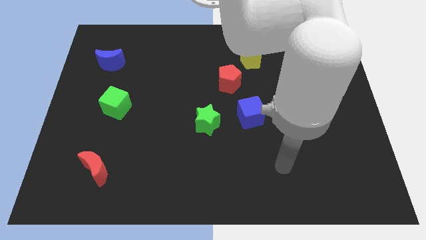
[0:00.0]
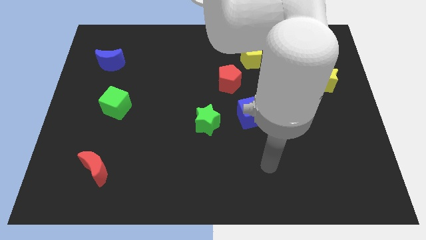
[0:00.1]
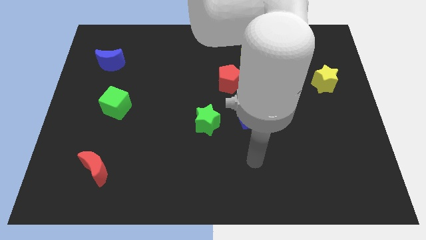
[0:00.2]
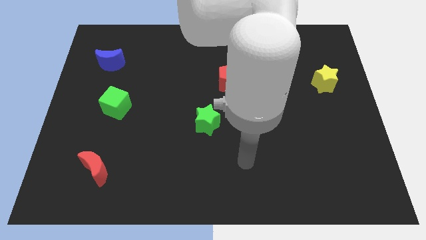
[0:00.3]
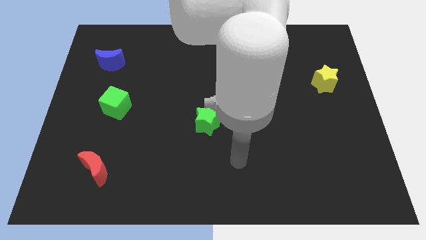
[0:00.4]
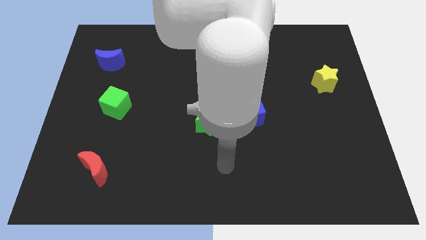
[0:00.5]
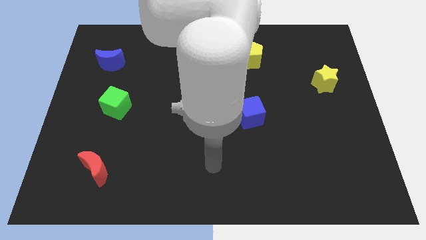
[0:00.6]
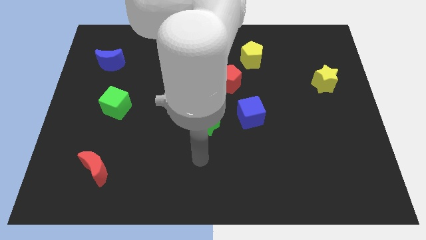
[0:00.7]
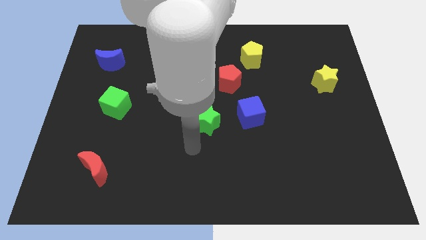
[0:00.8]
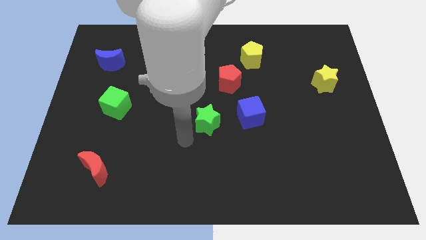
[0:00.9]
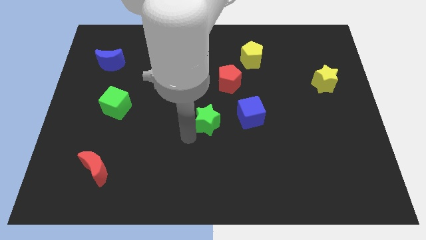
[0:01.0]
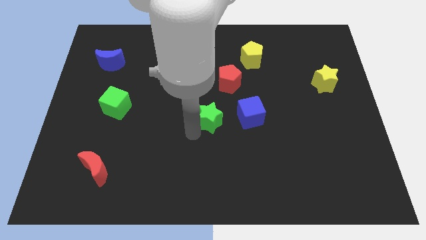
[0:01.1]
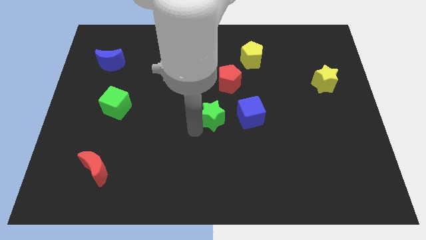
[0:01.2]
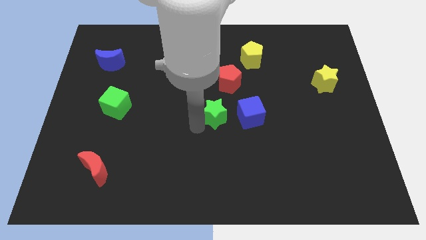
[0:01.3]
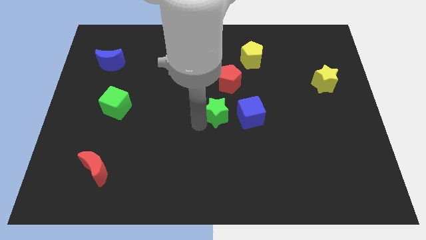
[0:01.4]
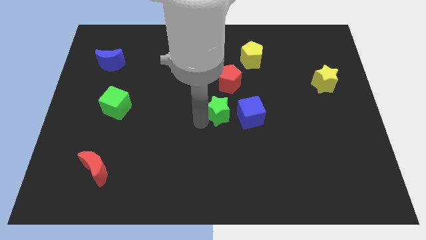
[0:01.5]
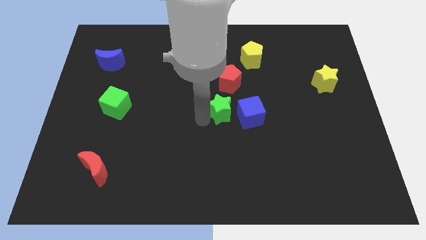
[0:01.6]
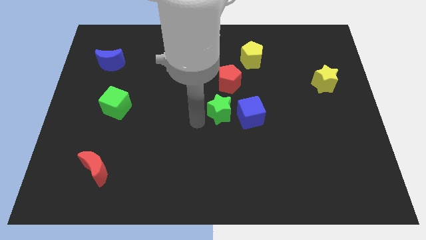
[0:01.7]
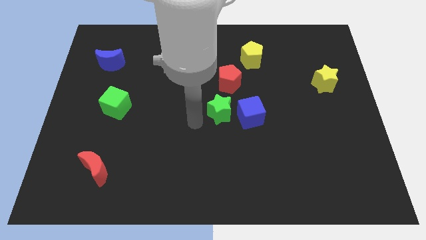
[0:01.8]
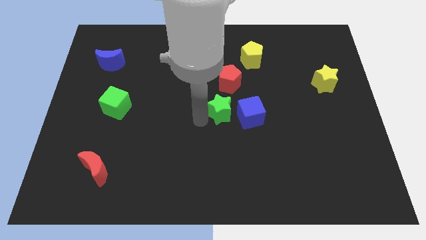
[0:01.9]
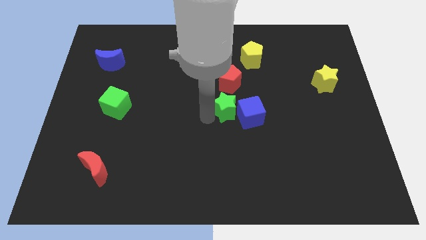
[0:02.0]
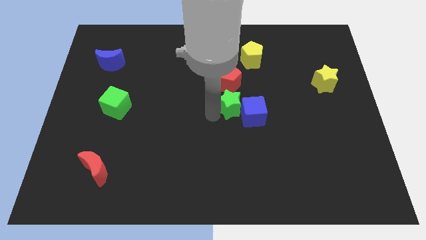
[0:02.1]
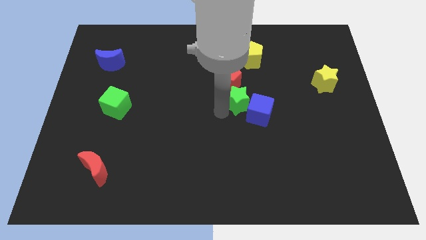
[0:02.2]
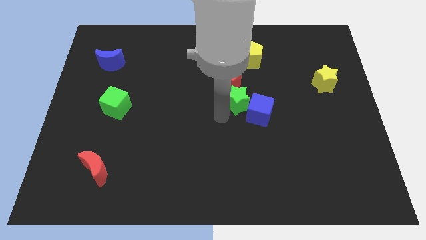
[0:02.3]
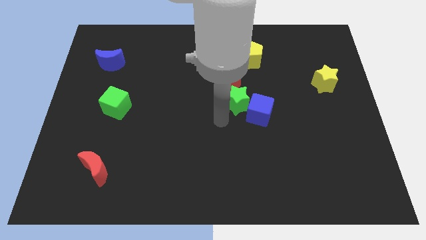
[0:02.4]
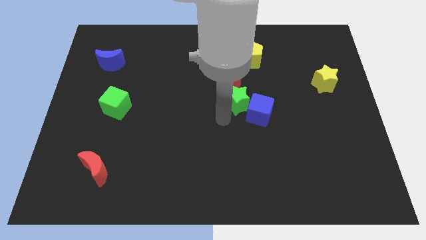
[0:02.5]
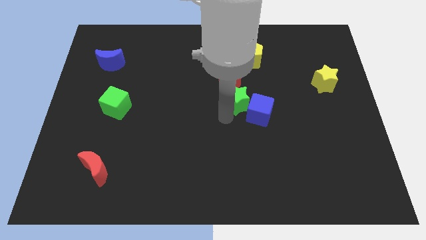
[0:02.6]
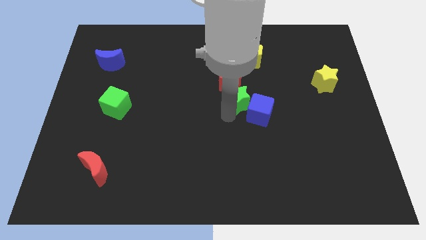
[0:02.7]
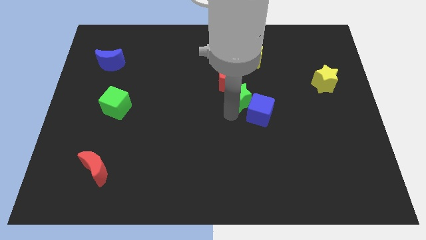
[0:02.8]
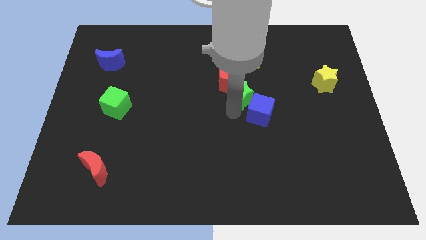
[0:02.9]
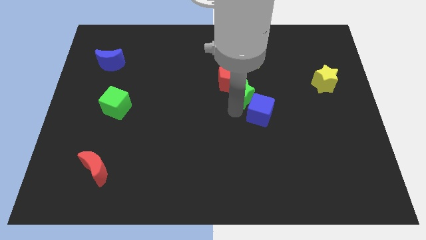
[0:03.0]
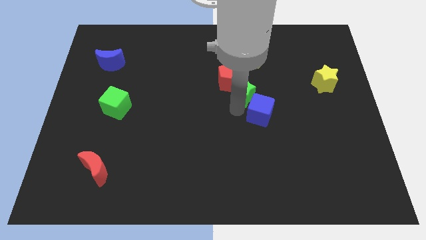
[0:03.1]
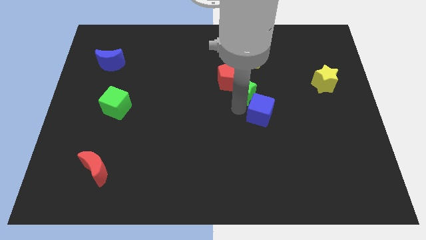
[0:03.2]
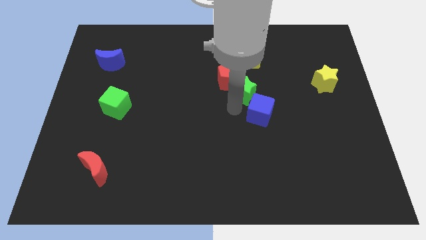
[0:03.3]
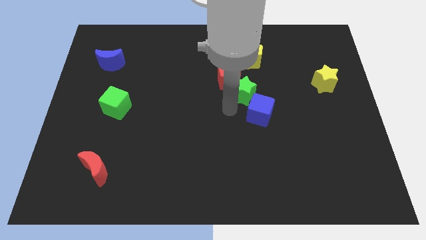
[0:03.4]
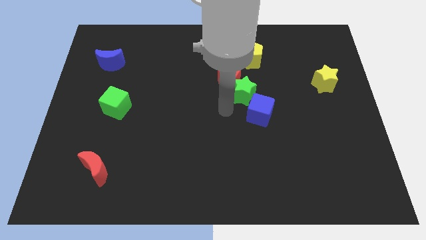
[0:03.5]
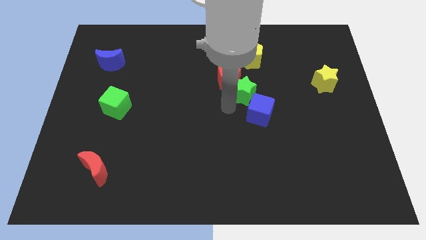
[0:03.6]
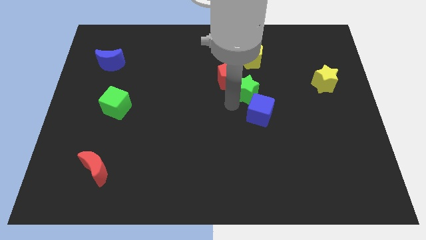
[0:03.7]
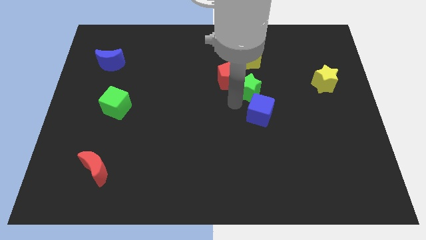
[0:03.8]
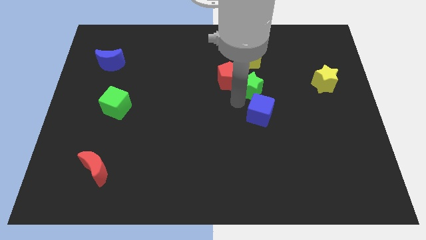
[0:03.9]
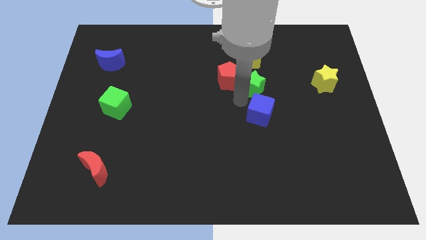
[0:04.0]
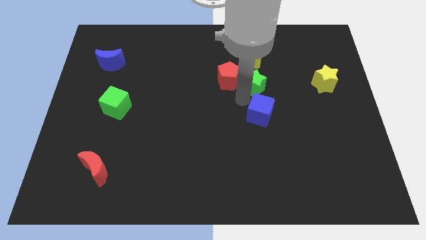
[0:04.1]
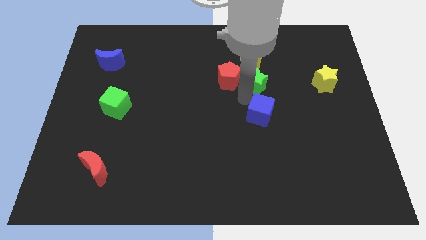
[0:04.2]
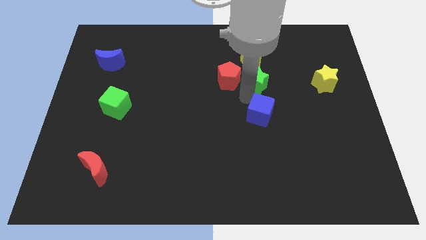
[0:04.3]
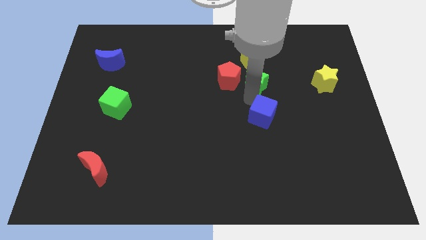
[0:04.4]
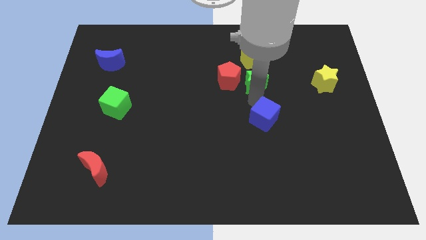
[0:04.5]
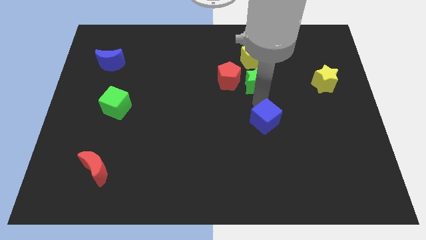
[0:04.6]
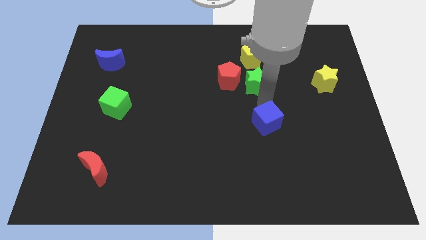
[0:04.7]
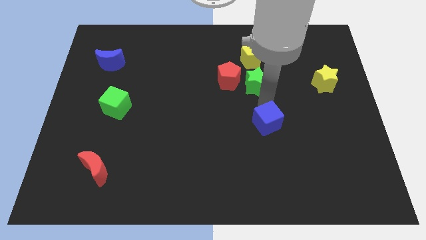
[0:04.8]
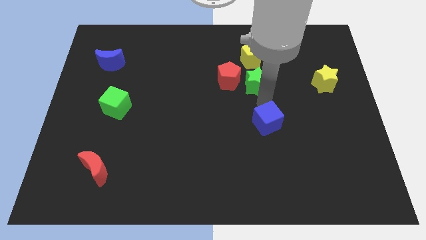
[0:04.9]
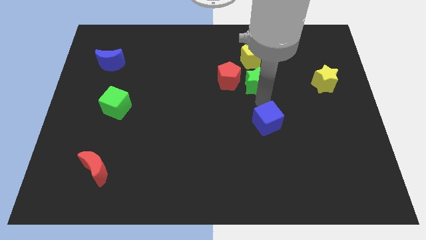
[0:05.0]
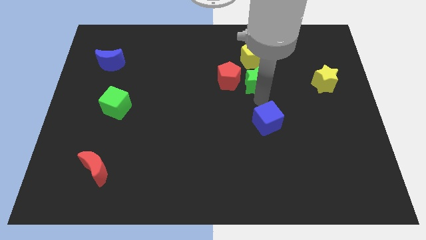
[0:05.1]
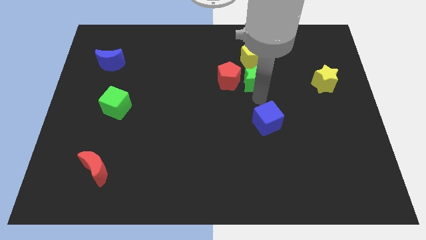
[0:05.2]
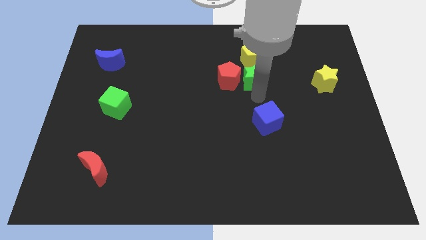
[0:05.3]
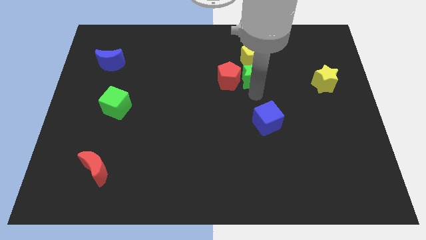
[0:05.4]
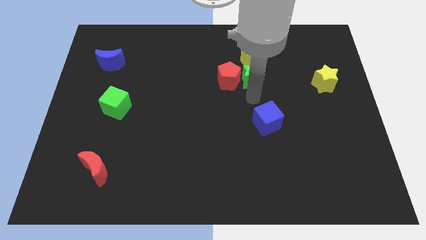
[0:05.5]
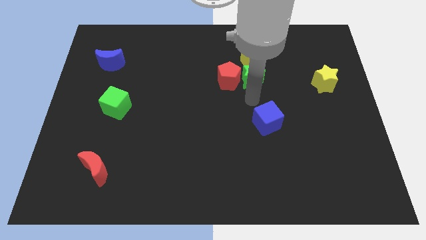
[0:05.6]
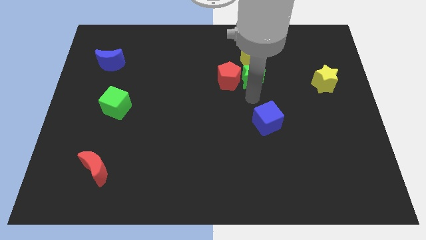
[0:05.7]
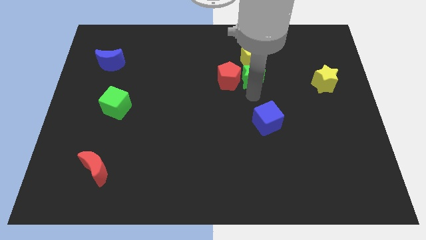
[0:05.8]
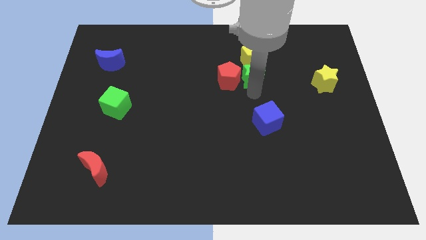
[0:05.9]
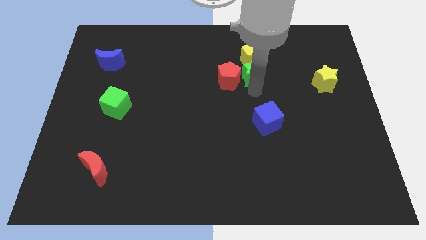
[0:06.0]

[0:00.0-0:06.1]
slide the green star next to the yellow pentagon
